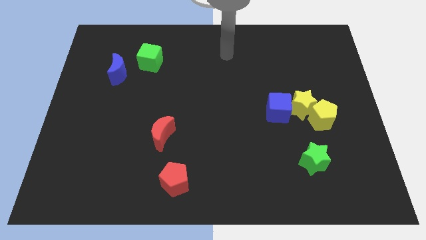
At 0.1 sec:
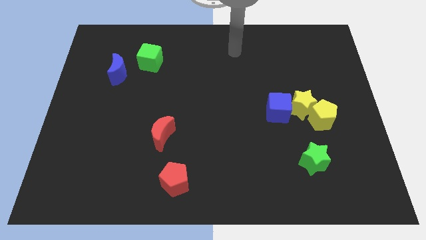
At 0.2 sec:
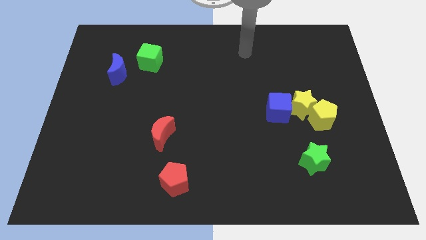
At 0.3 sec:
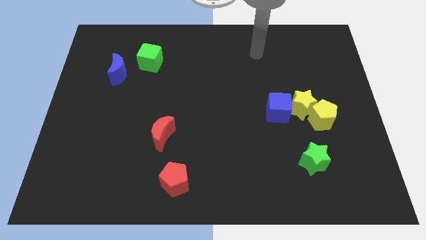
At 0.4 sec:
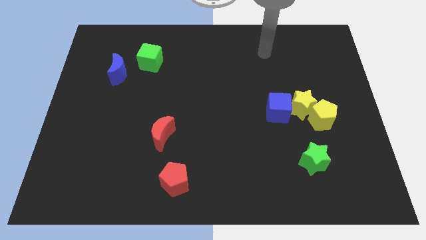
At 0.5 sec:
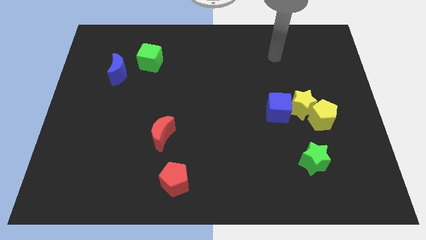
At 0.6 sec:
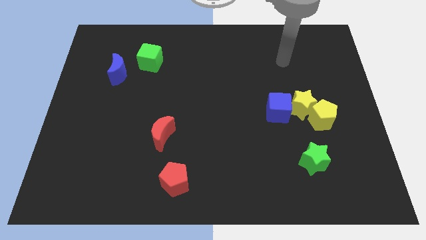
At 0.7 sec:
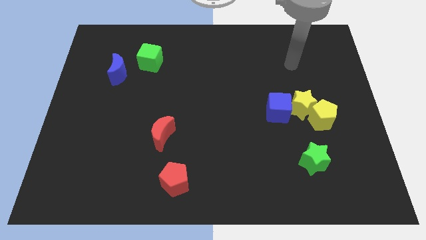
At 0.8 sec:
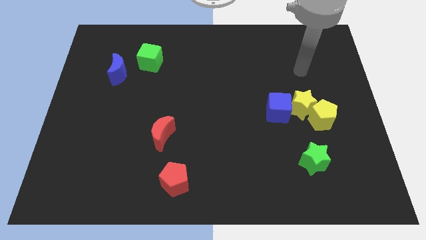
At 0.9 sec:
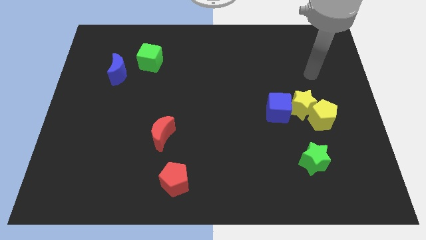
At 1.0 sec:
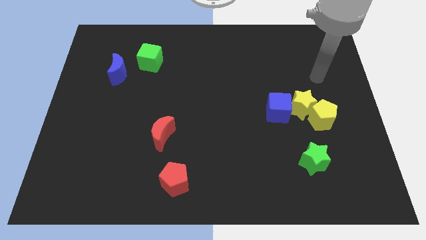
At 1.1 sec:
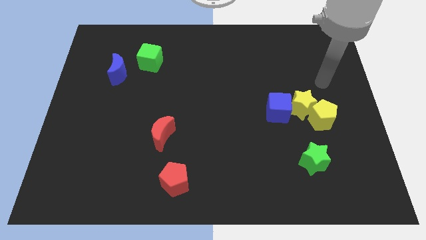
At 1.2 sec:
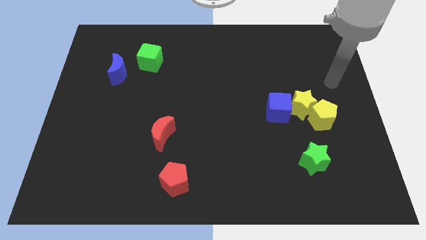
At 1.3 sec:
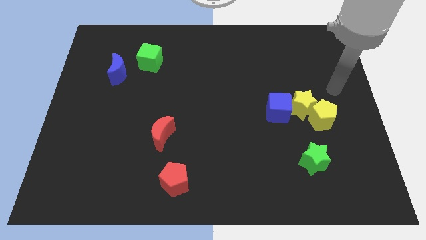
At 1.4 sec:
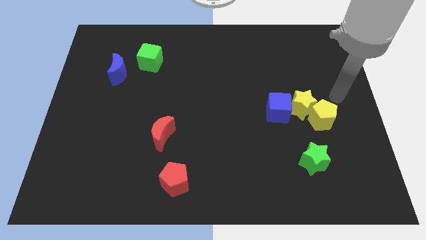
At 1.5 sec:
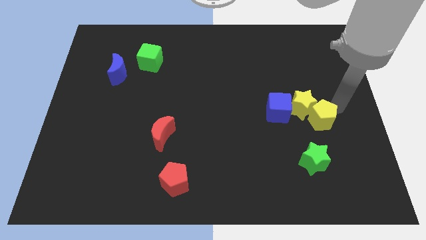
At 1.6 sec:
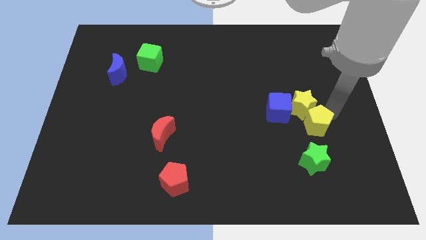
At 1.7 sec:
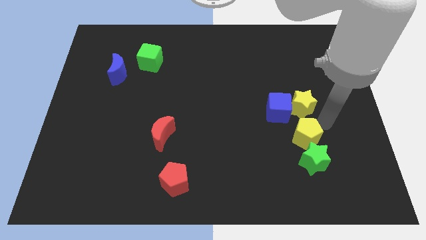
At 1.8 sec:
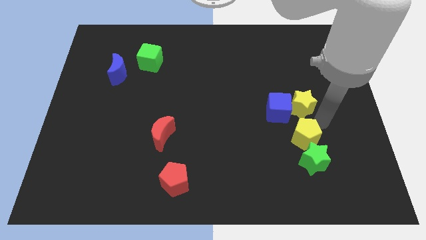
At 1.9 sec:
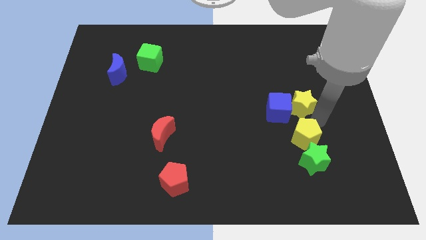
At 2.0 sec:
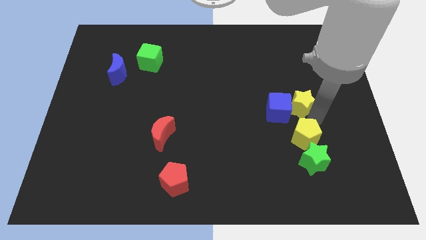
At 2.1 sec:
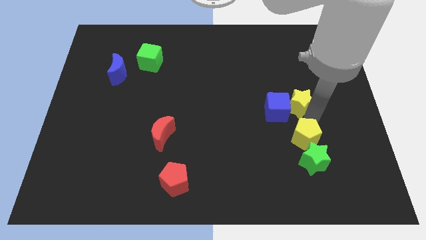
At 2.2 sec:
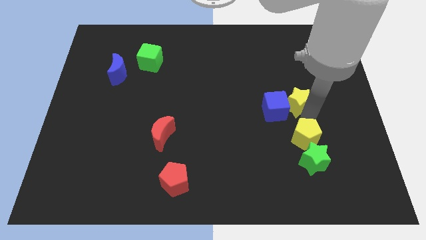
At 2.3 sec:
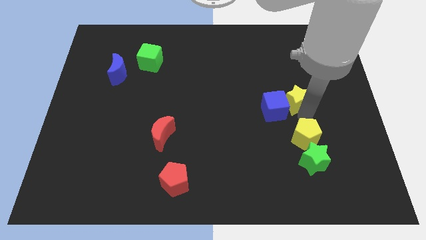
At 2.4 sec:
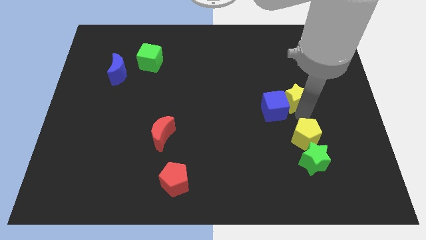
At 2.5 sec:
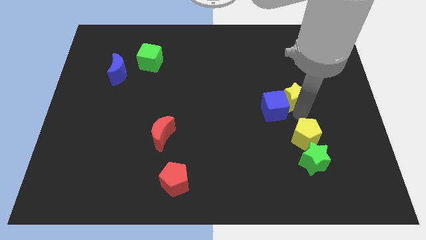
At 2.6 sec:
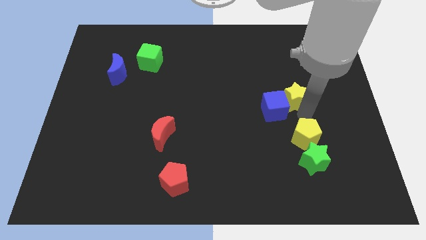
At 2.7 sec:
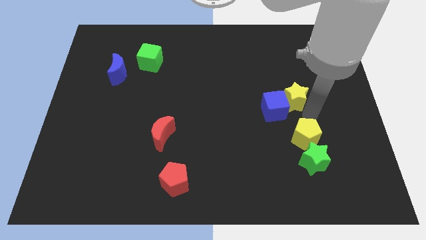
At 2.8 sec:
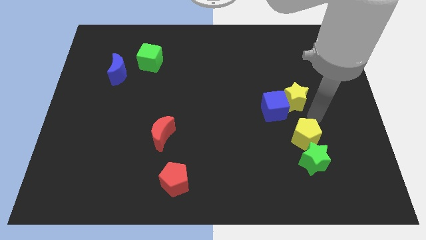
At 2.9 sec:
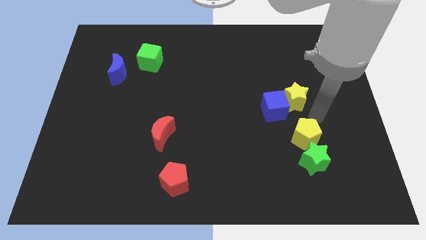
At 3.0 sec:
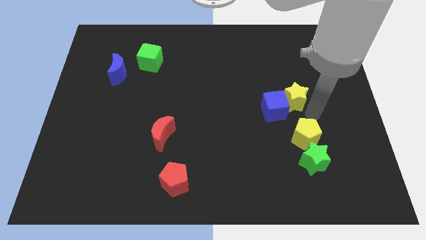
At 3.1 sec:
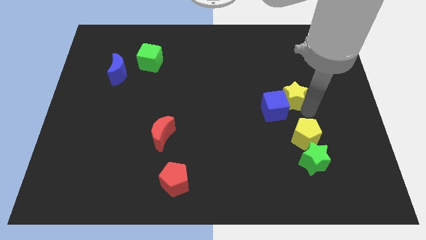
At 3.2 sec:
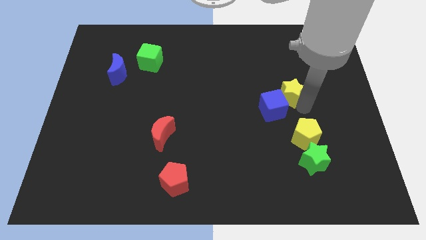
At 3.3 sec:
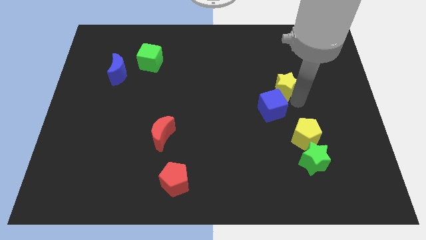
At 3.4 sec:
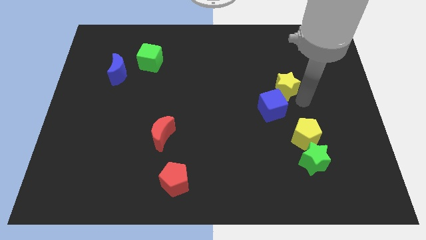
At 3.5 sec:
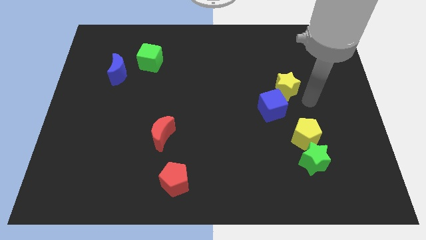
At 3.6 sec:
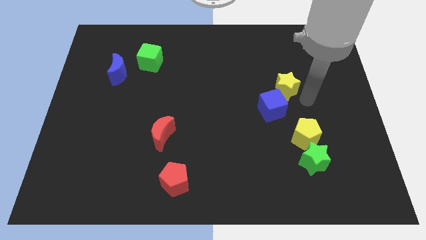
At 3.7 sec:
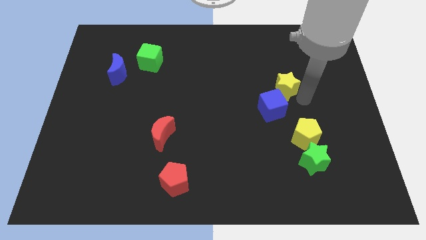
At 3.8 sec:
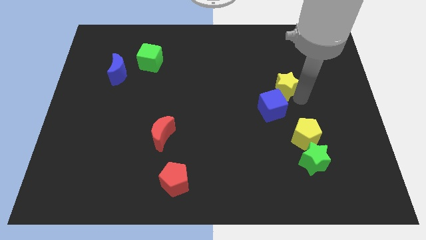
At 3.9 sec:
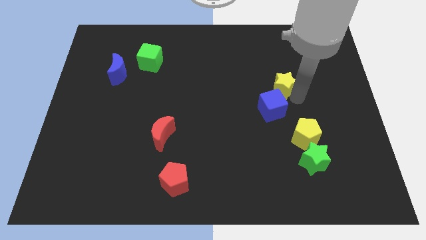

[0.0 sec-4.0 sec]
move the yellow star diagonally upwards and left somewhat

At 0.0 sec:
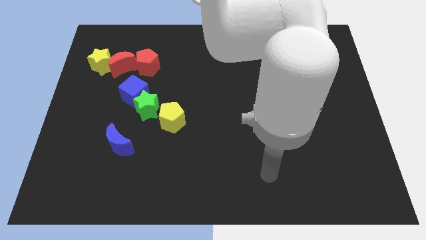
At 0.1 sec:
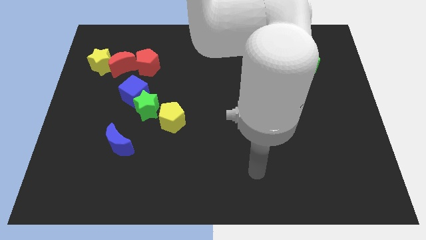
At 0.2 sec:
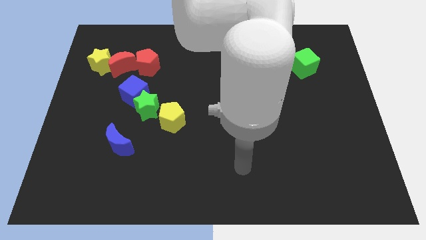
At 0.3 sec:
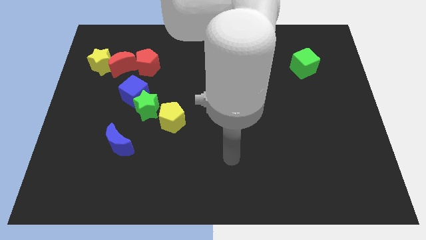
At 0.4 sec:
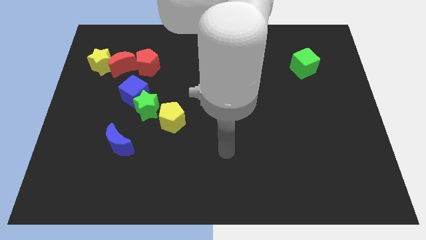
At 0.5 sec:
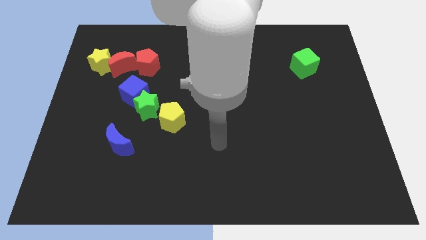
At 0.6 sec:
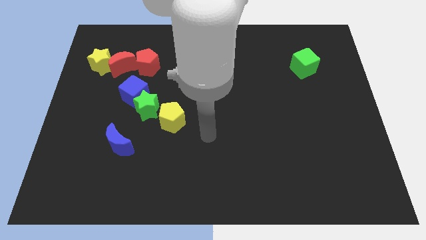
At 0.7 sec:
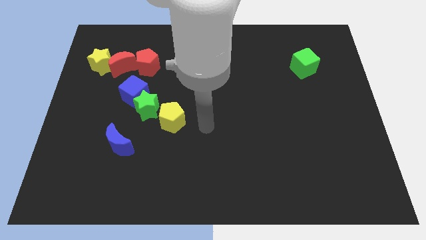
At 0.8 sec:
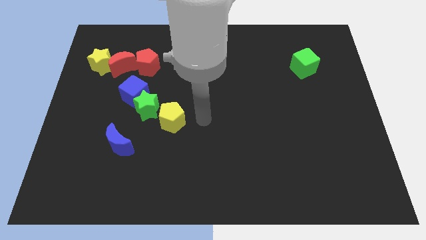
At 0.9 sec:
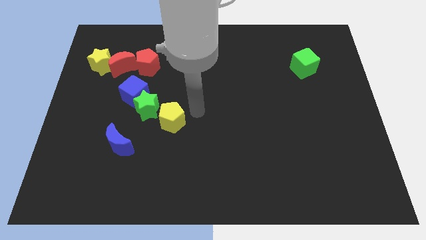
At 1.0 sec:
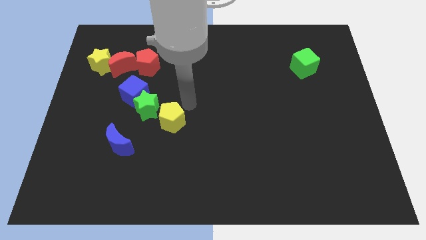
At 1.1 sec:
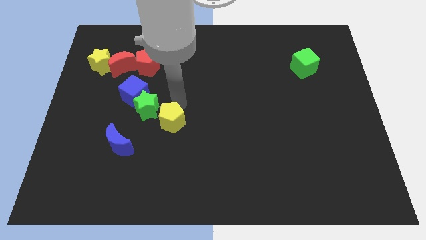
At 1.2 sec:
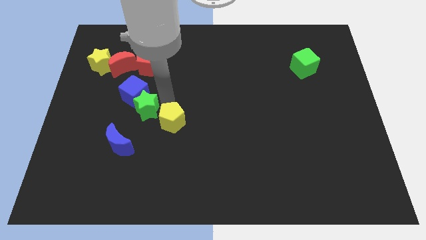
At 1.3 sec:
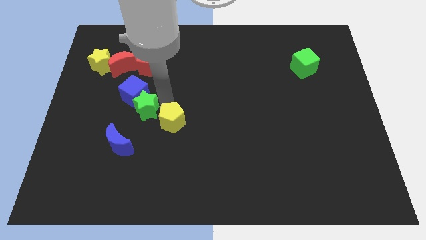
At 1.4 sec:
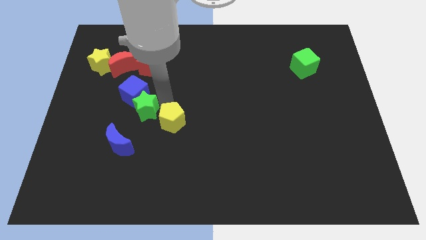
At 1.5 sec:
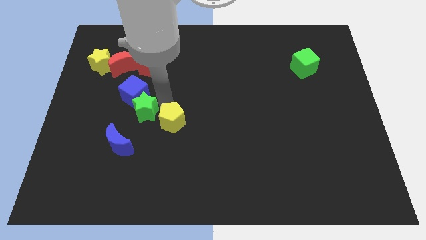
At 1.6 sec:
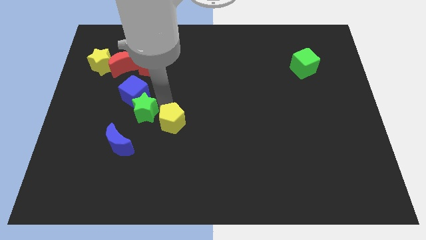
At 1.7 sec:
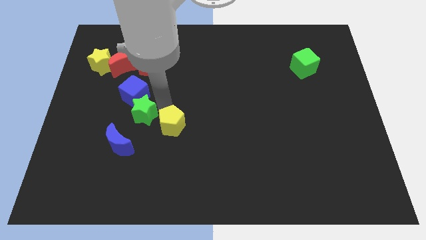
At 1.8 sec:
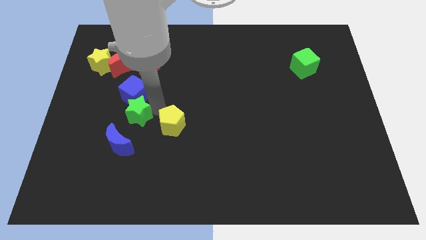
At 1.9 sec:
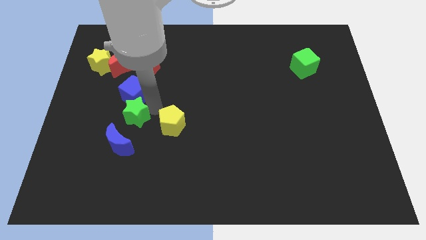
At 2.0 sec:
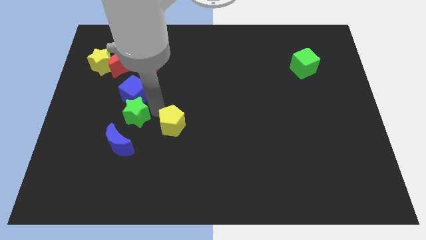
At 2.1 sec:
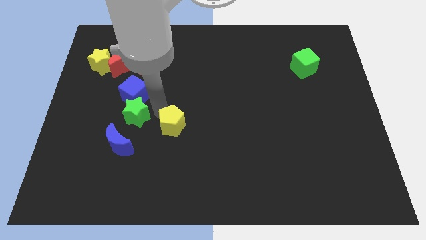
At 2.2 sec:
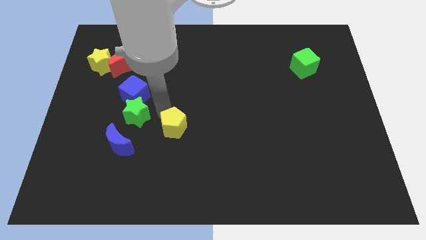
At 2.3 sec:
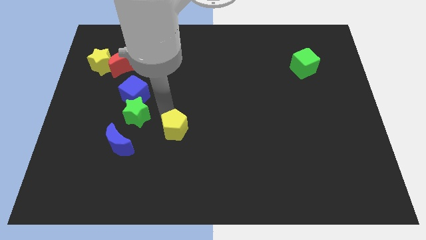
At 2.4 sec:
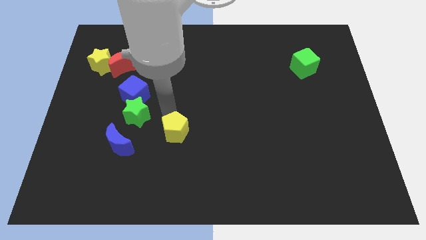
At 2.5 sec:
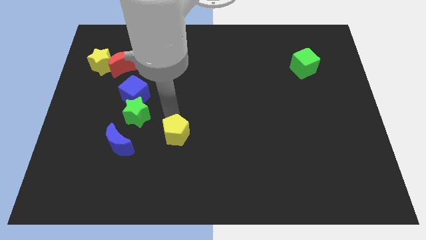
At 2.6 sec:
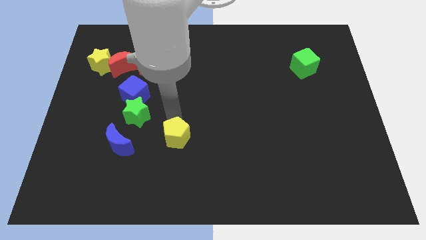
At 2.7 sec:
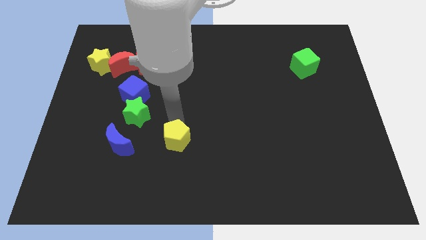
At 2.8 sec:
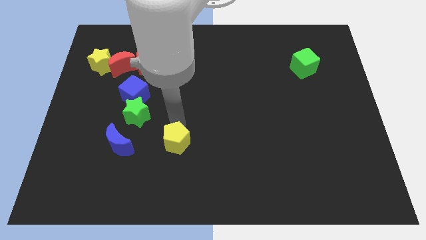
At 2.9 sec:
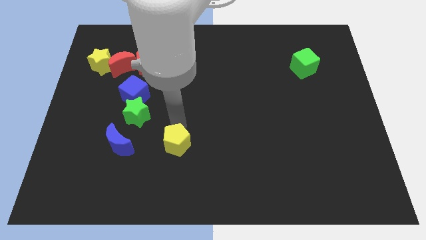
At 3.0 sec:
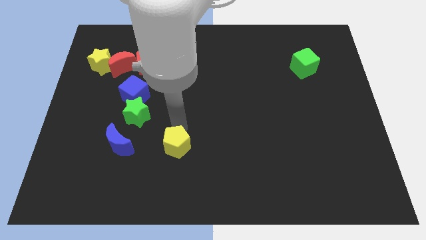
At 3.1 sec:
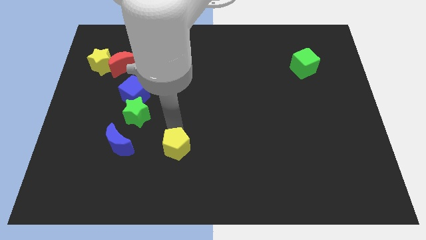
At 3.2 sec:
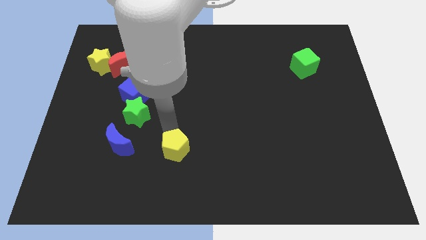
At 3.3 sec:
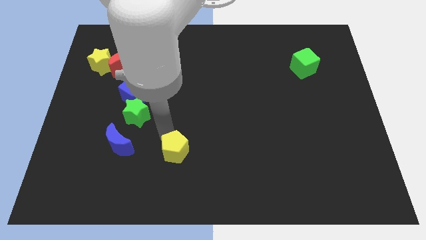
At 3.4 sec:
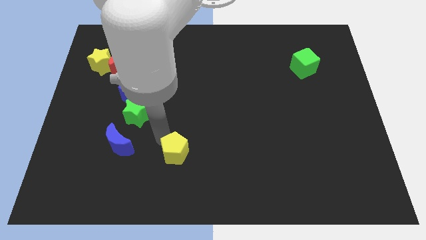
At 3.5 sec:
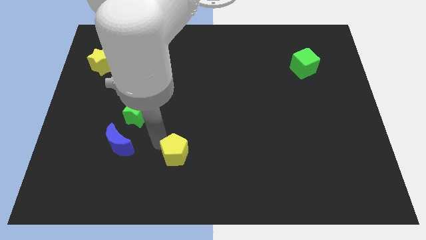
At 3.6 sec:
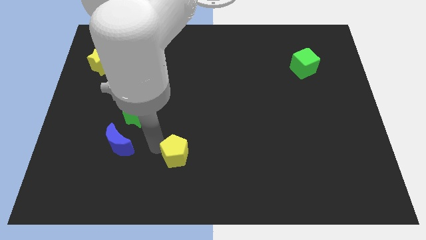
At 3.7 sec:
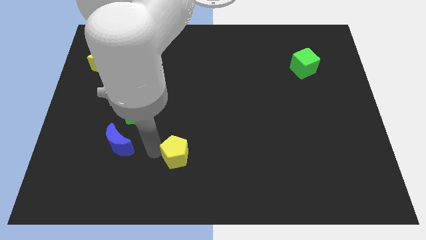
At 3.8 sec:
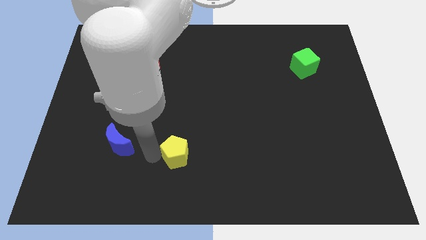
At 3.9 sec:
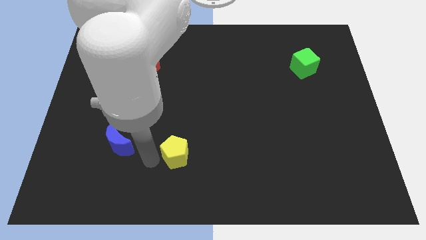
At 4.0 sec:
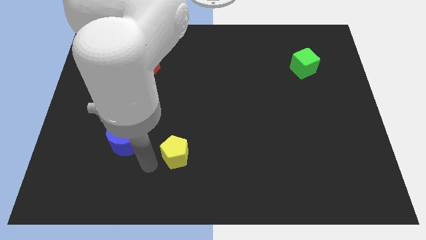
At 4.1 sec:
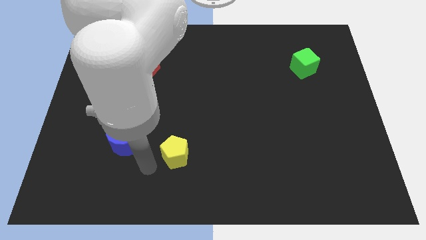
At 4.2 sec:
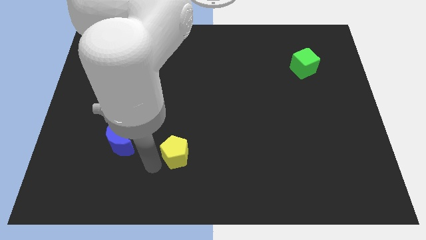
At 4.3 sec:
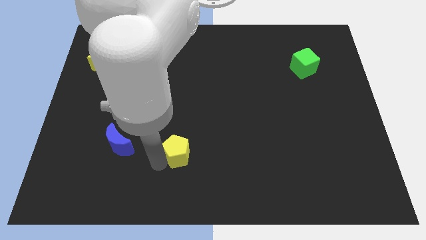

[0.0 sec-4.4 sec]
move the yellow pentagon a little downwards and to the right
